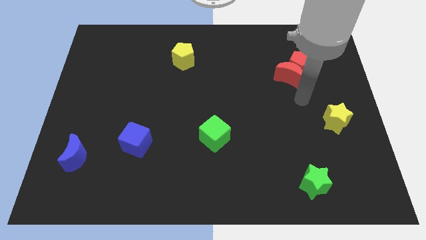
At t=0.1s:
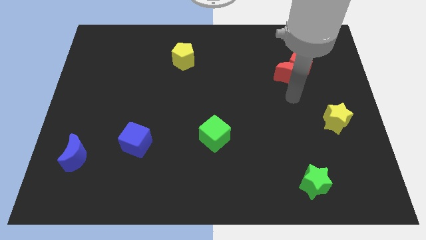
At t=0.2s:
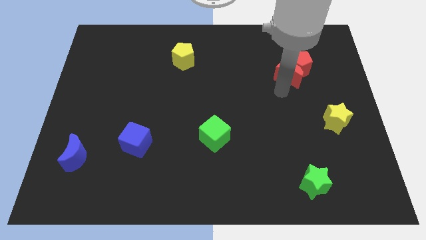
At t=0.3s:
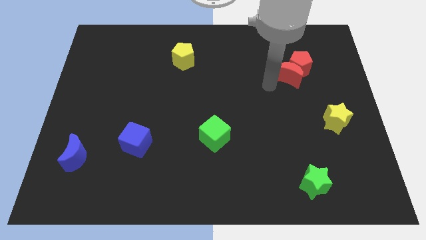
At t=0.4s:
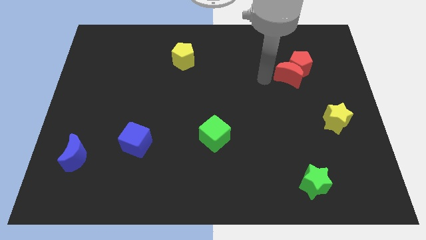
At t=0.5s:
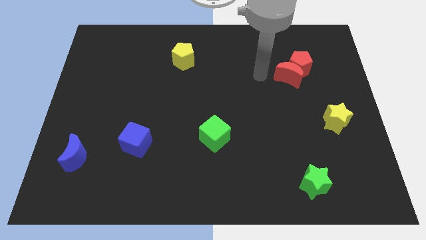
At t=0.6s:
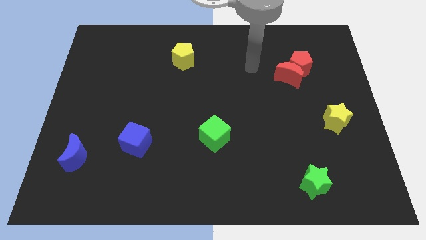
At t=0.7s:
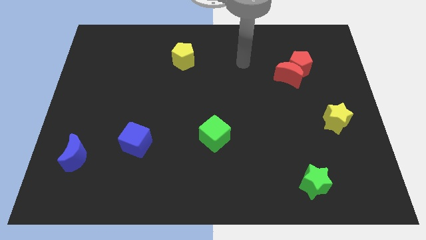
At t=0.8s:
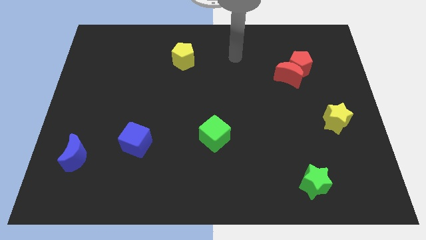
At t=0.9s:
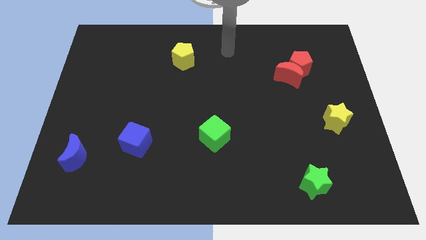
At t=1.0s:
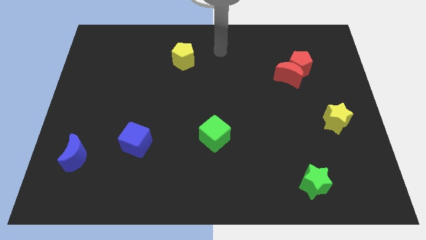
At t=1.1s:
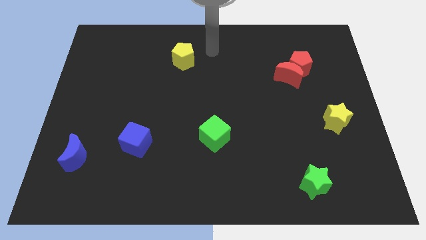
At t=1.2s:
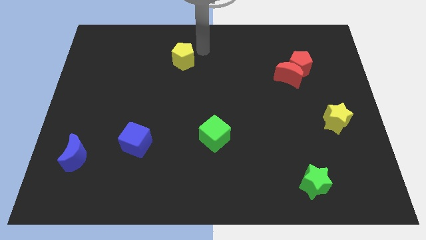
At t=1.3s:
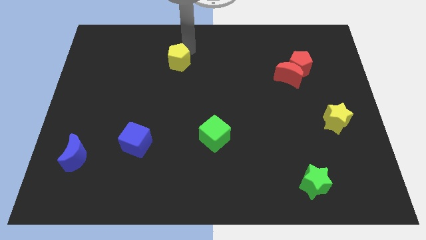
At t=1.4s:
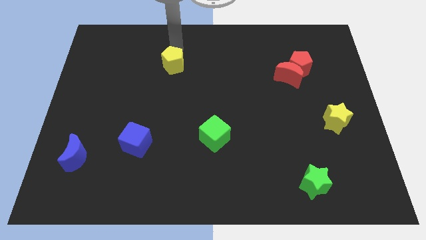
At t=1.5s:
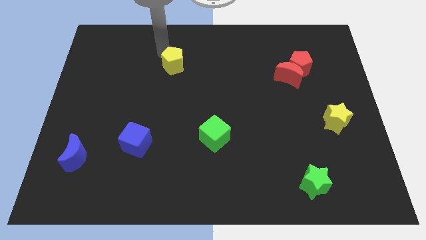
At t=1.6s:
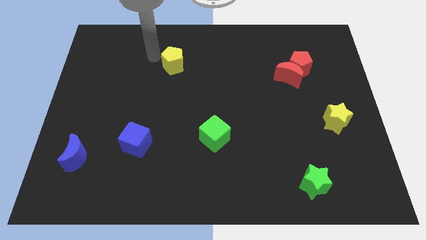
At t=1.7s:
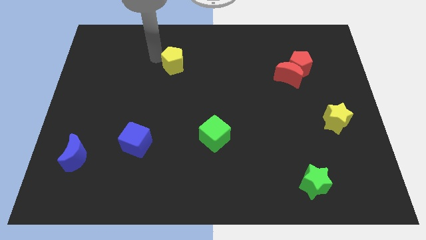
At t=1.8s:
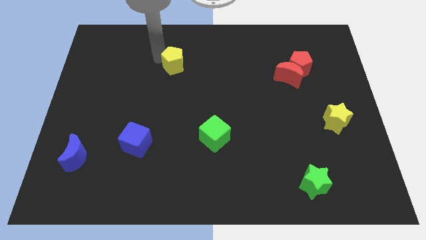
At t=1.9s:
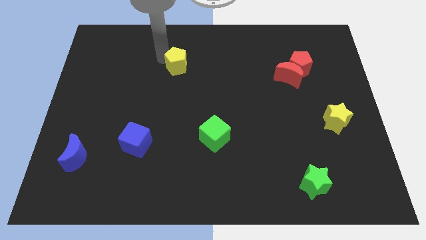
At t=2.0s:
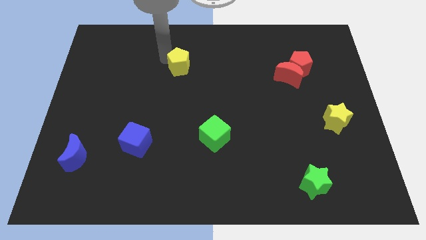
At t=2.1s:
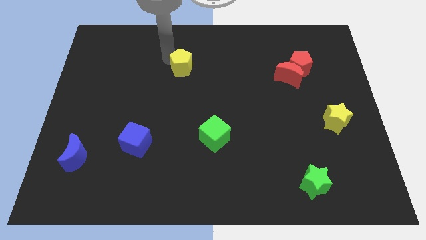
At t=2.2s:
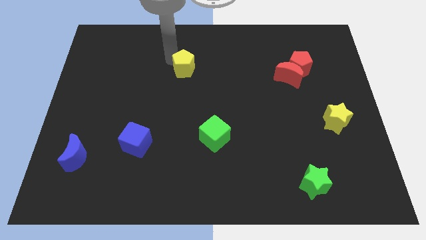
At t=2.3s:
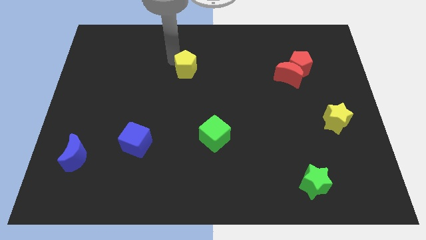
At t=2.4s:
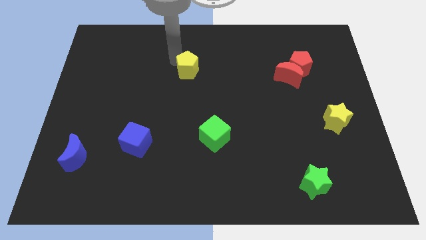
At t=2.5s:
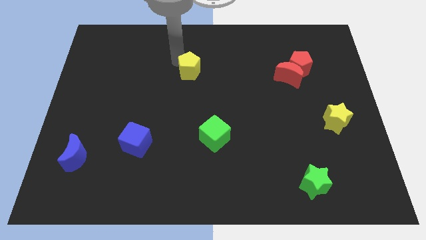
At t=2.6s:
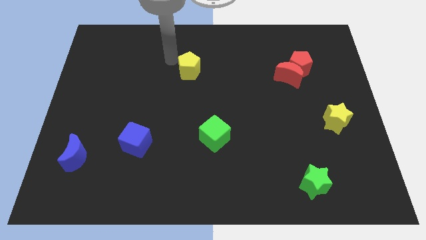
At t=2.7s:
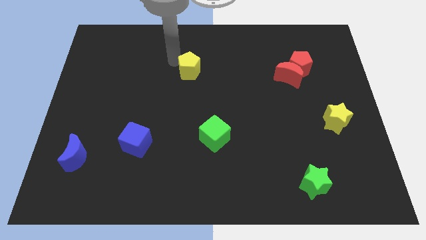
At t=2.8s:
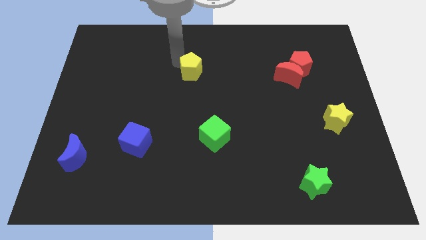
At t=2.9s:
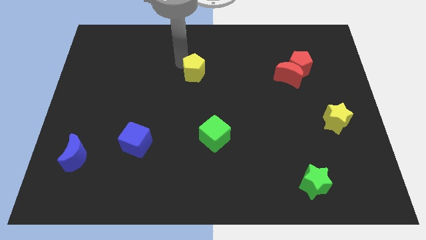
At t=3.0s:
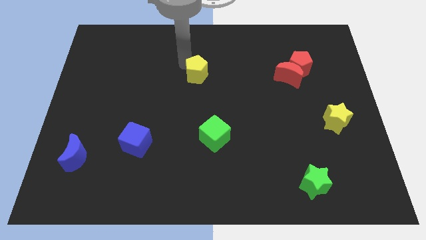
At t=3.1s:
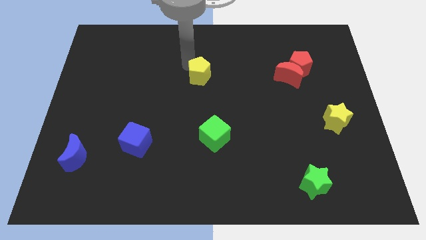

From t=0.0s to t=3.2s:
slightly move the yellow pentagon downwards and then right

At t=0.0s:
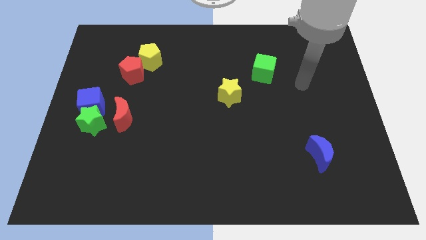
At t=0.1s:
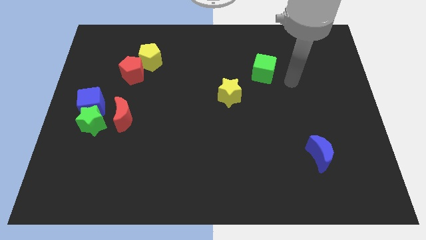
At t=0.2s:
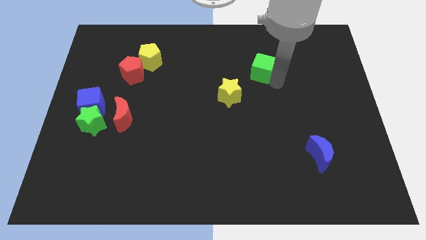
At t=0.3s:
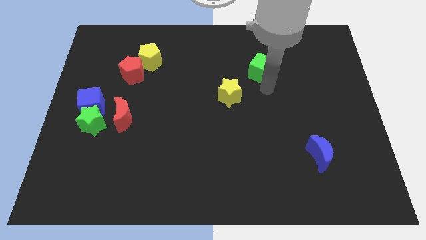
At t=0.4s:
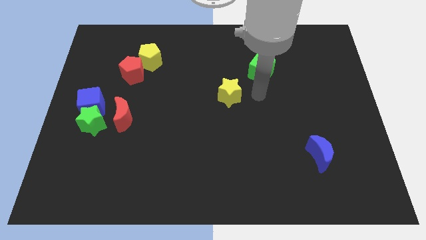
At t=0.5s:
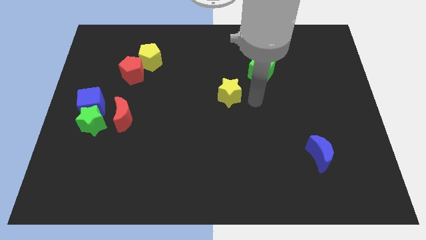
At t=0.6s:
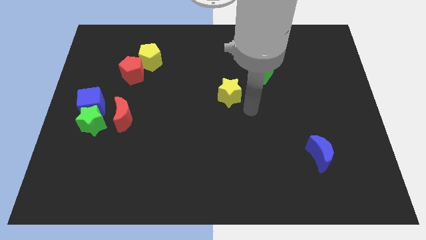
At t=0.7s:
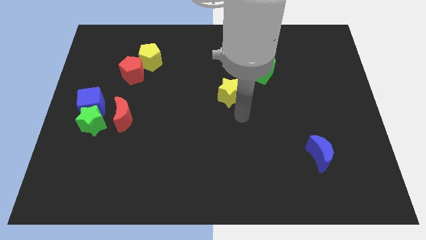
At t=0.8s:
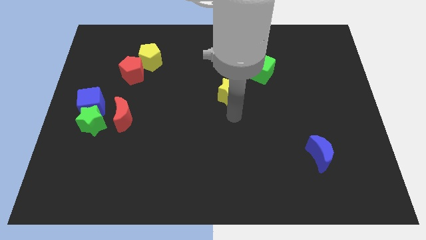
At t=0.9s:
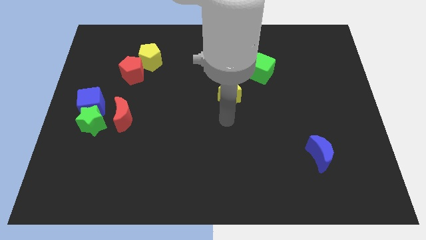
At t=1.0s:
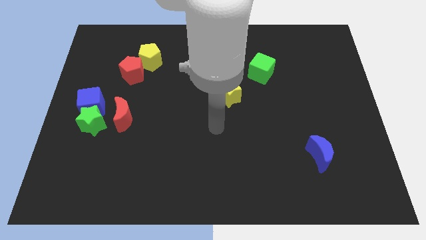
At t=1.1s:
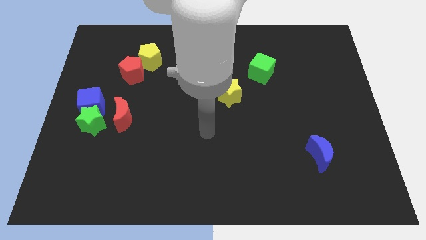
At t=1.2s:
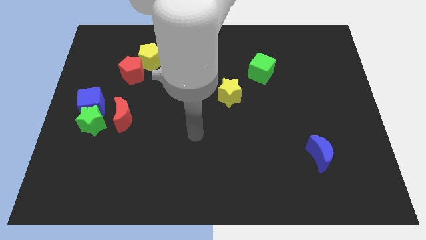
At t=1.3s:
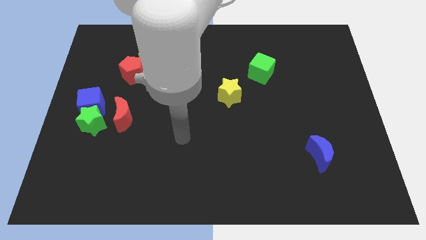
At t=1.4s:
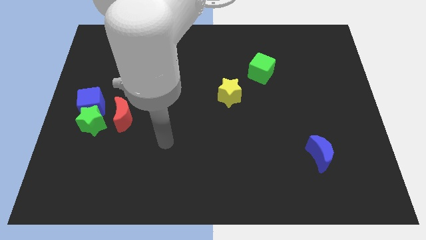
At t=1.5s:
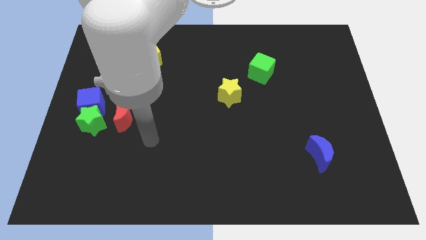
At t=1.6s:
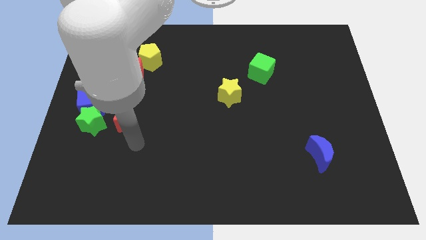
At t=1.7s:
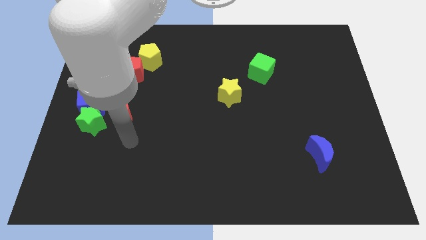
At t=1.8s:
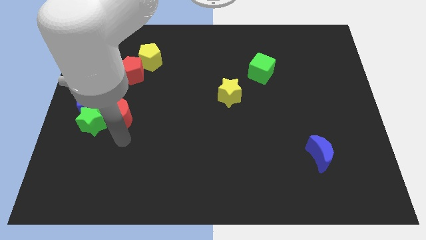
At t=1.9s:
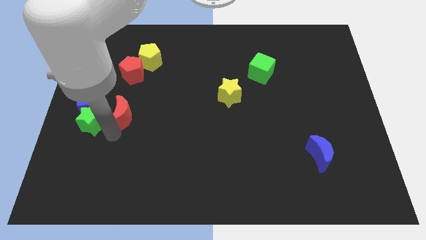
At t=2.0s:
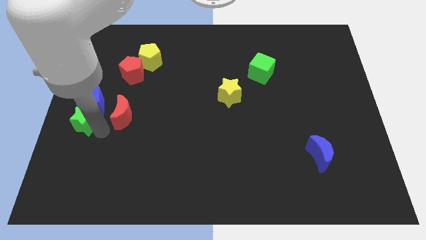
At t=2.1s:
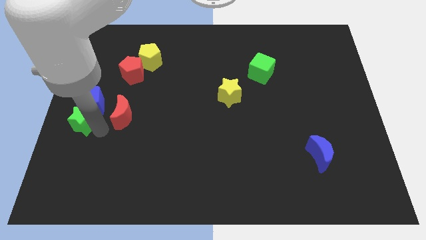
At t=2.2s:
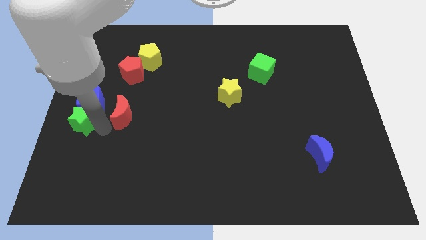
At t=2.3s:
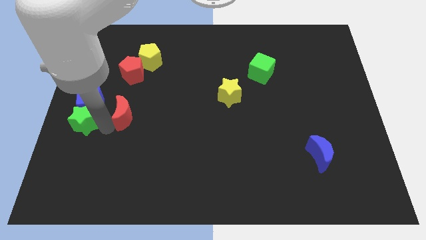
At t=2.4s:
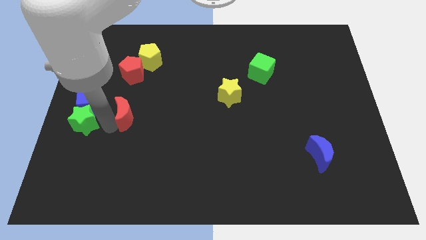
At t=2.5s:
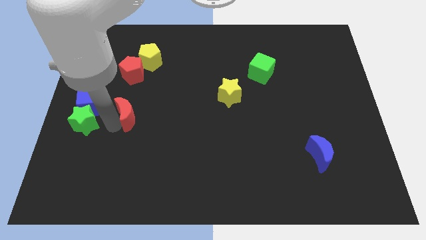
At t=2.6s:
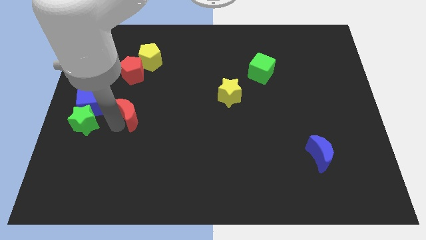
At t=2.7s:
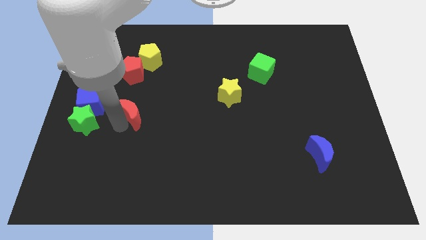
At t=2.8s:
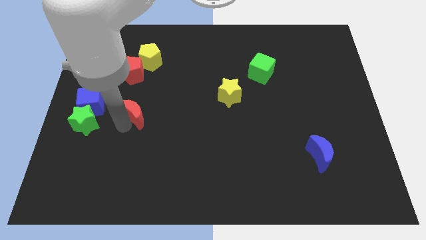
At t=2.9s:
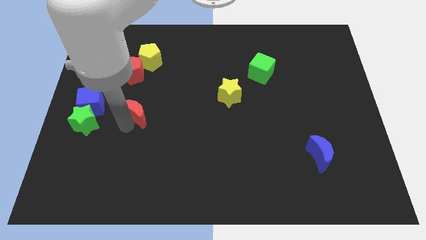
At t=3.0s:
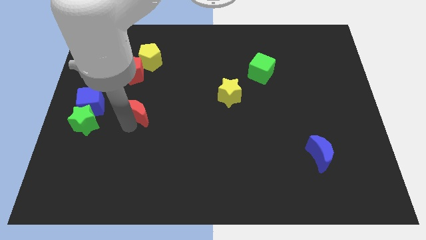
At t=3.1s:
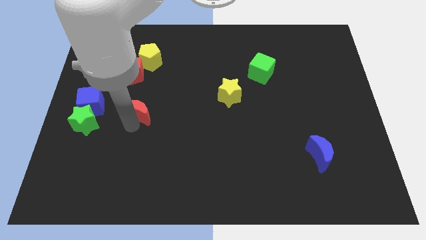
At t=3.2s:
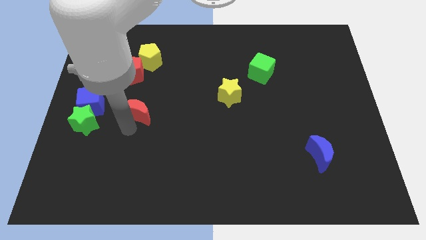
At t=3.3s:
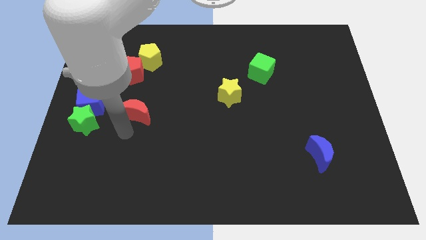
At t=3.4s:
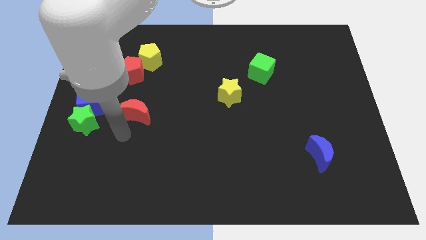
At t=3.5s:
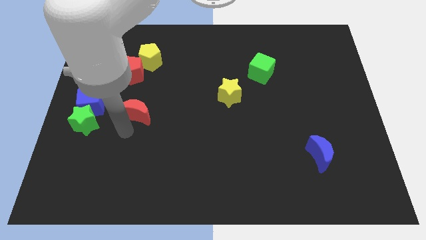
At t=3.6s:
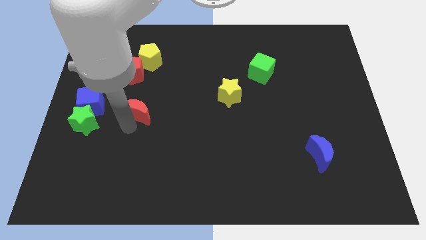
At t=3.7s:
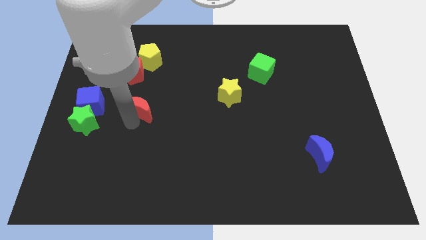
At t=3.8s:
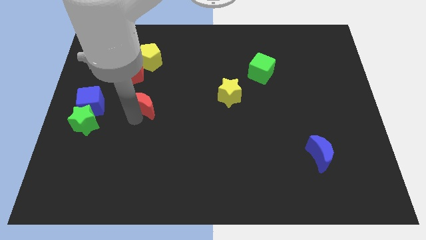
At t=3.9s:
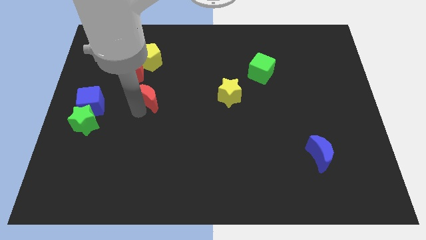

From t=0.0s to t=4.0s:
slightly move the red moon up and right diagonally

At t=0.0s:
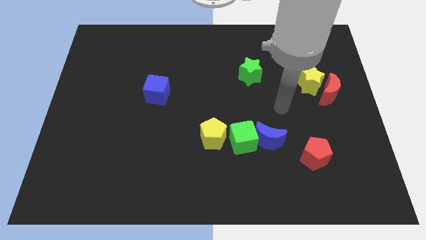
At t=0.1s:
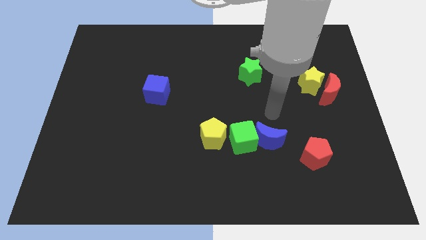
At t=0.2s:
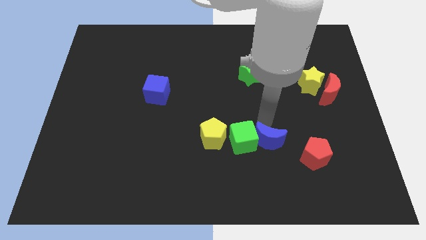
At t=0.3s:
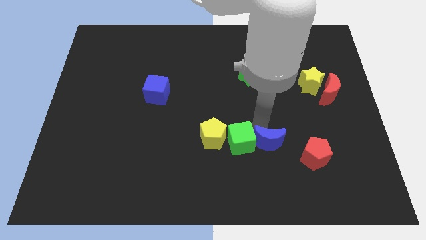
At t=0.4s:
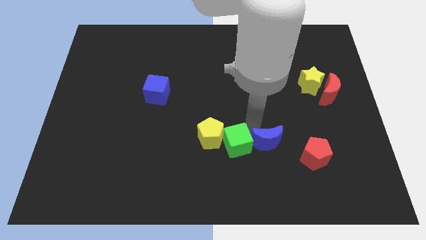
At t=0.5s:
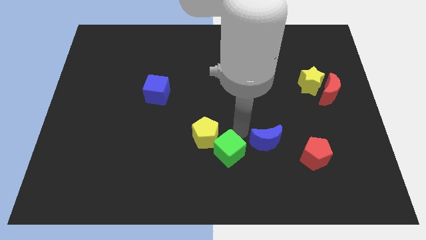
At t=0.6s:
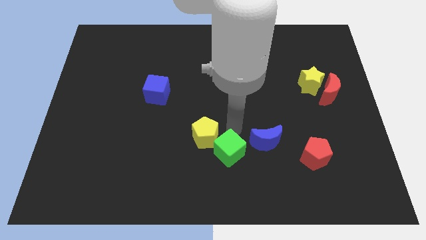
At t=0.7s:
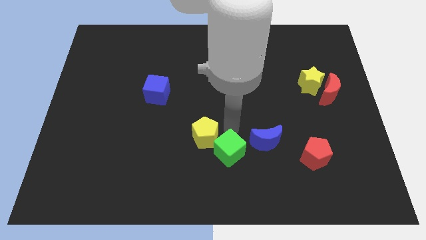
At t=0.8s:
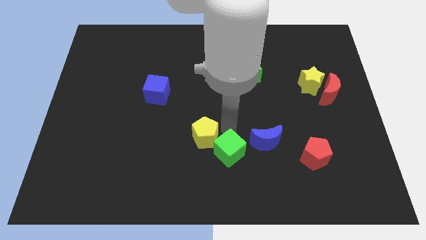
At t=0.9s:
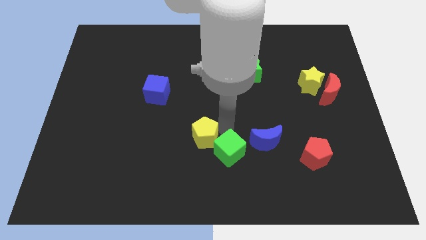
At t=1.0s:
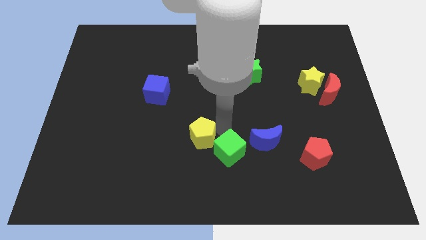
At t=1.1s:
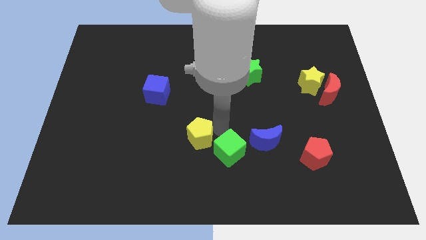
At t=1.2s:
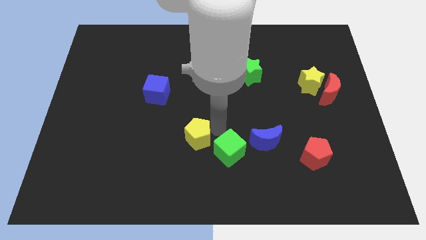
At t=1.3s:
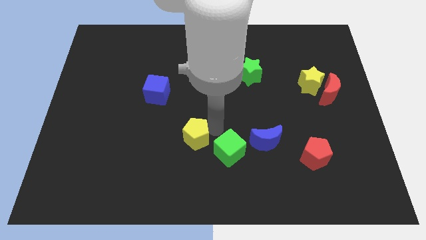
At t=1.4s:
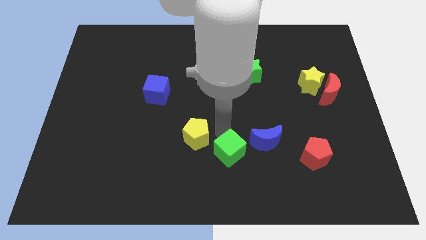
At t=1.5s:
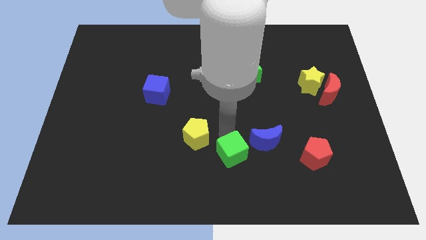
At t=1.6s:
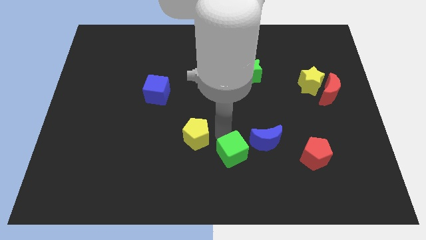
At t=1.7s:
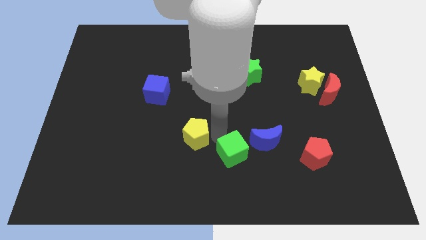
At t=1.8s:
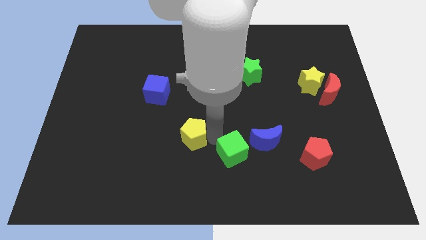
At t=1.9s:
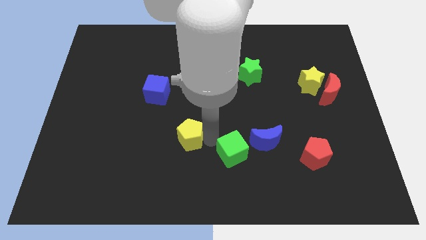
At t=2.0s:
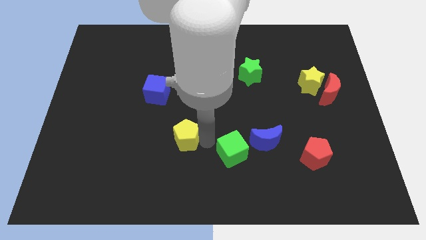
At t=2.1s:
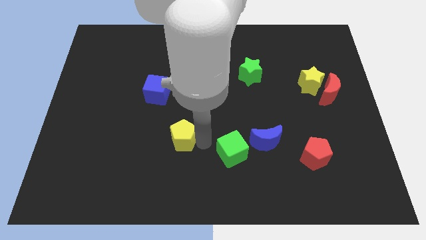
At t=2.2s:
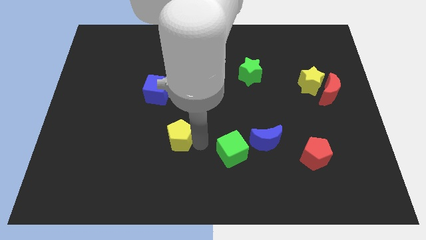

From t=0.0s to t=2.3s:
move the yellow pentagon to the left slightly
